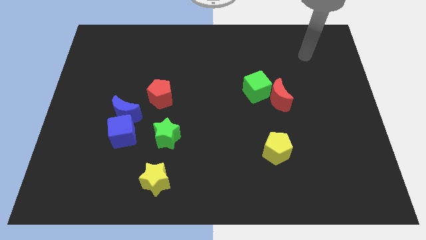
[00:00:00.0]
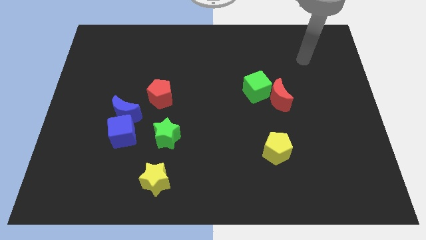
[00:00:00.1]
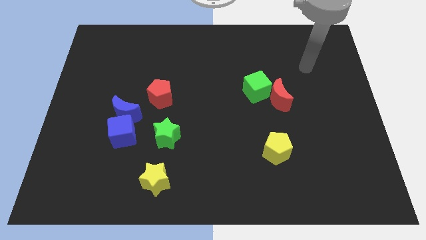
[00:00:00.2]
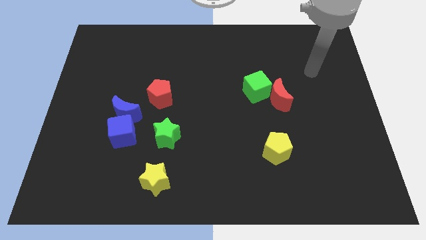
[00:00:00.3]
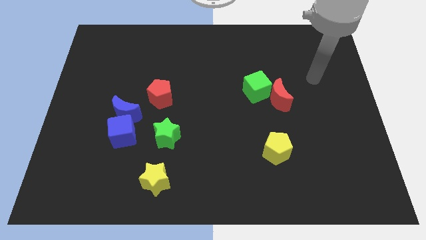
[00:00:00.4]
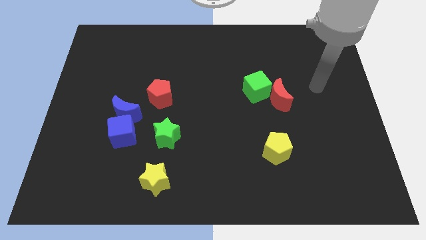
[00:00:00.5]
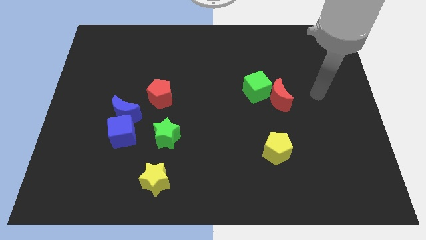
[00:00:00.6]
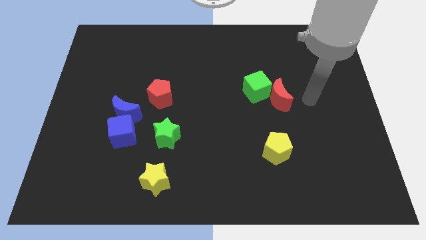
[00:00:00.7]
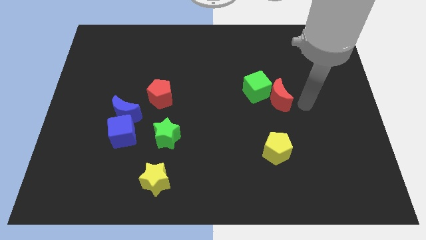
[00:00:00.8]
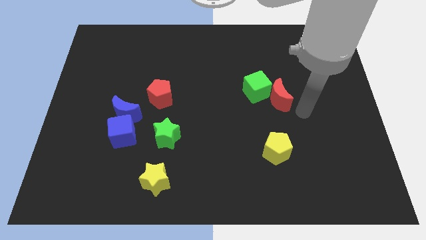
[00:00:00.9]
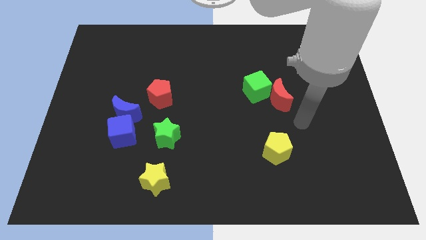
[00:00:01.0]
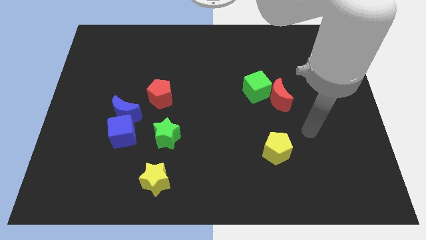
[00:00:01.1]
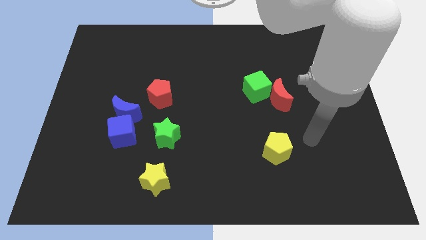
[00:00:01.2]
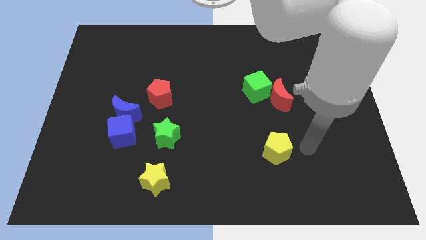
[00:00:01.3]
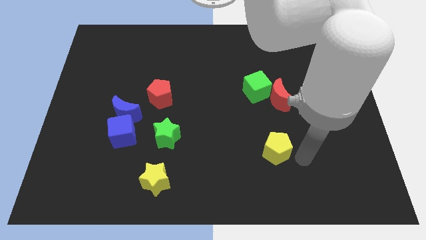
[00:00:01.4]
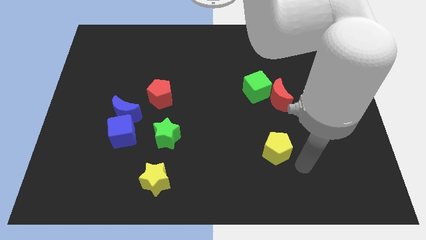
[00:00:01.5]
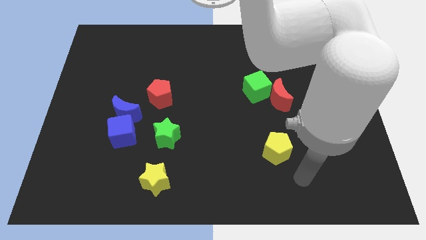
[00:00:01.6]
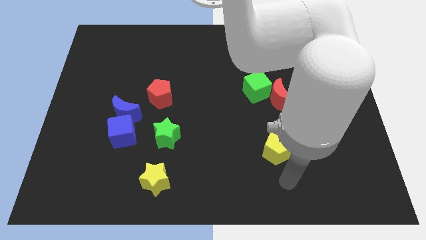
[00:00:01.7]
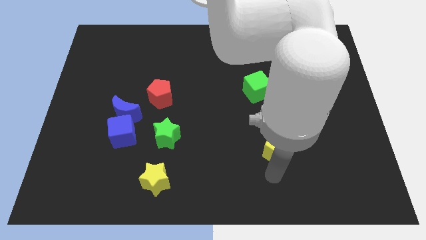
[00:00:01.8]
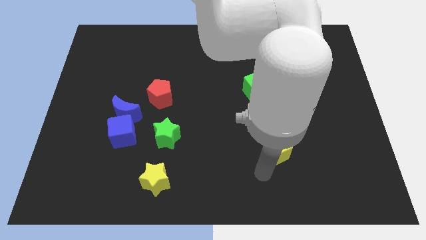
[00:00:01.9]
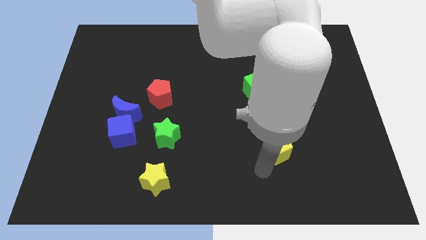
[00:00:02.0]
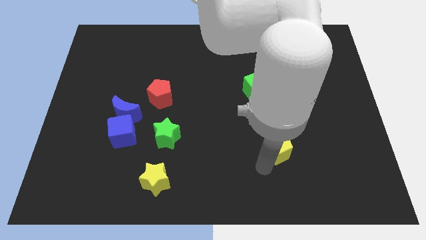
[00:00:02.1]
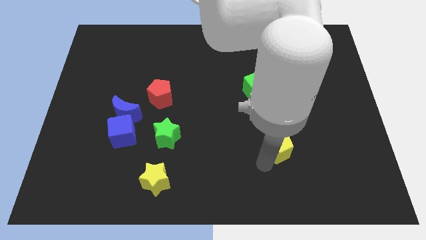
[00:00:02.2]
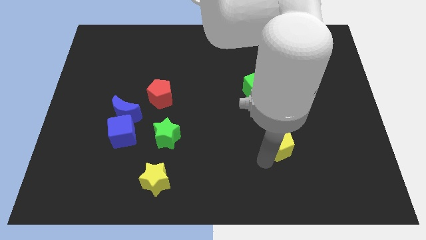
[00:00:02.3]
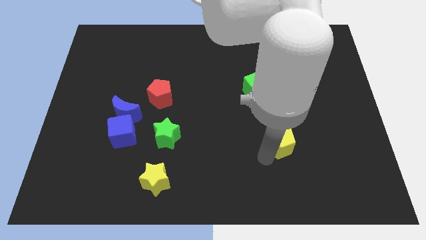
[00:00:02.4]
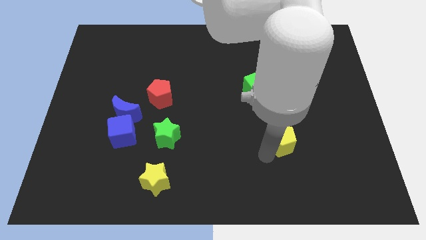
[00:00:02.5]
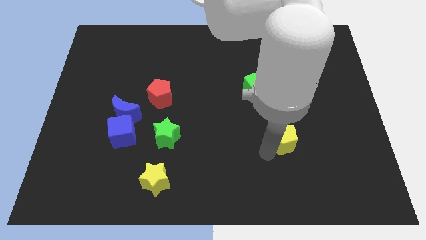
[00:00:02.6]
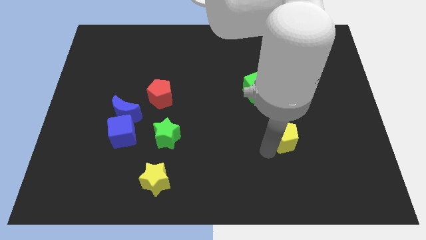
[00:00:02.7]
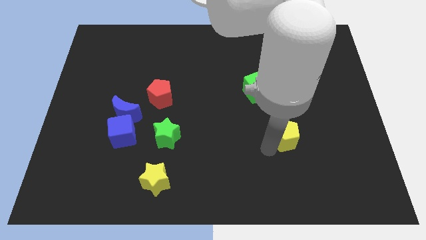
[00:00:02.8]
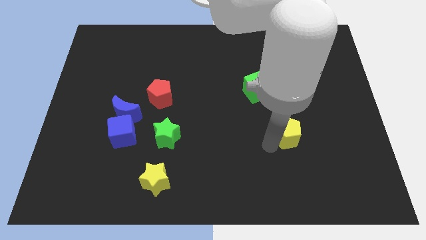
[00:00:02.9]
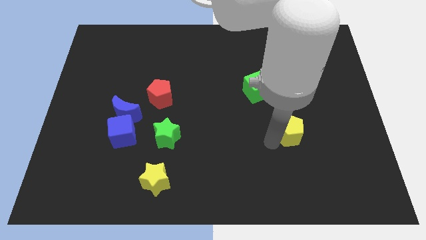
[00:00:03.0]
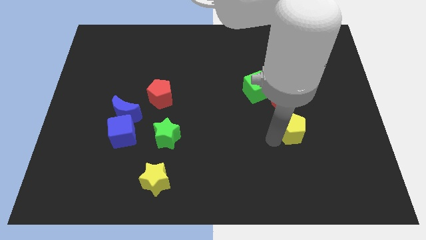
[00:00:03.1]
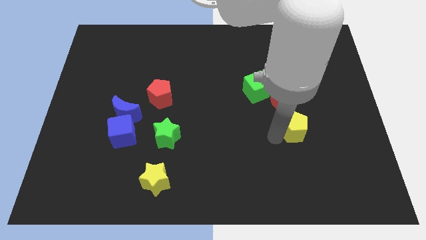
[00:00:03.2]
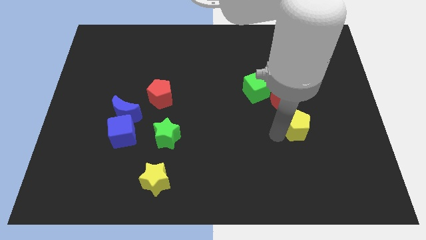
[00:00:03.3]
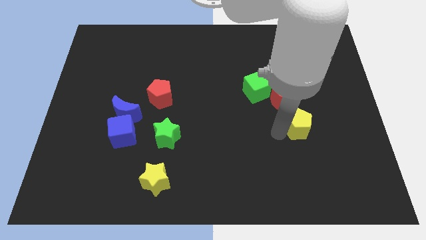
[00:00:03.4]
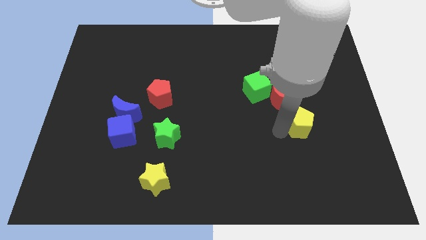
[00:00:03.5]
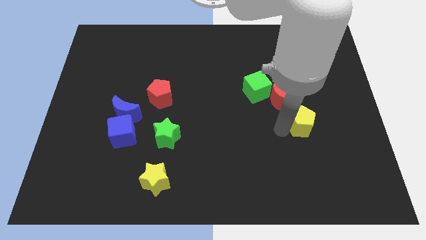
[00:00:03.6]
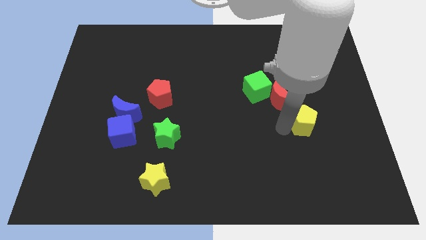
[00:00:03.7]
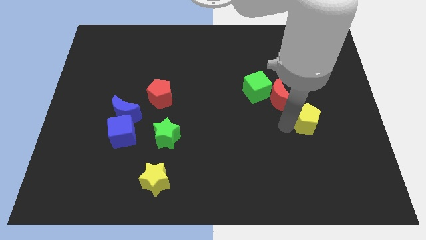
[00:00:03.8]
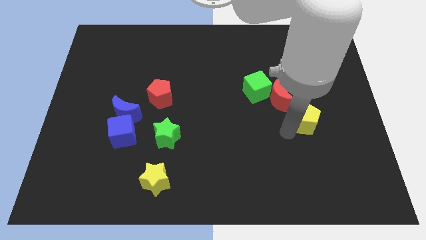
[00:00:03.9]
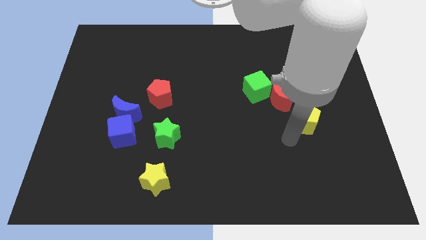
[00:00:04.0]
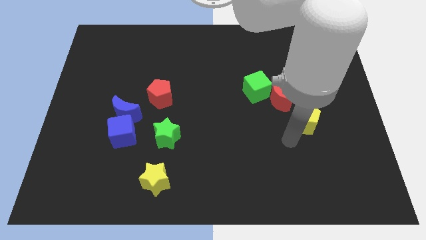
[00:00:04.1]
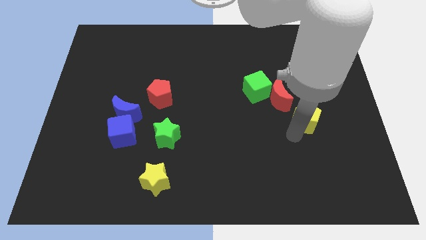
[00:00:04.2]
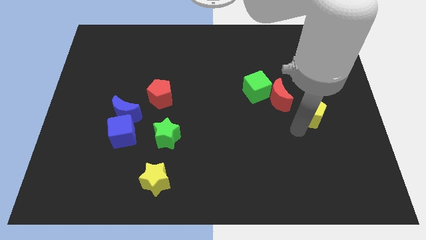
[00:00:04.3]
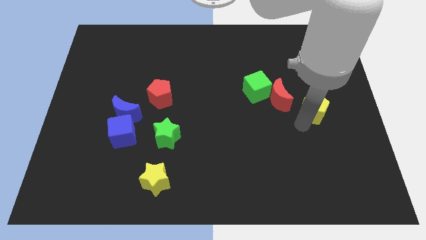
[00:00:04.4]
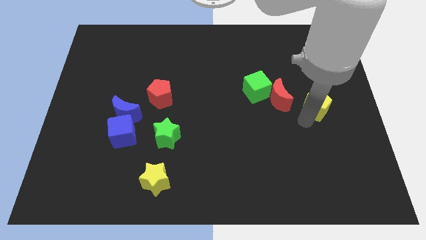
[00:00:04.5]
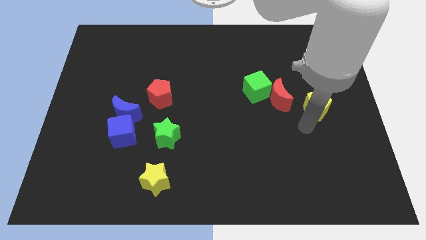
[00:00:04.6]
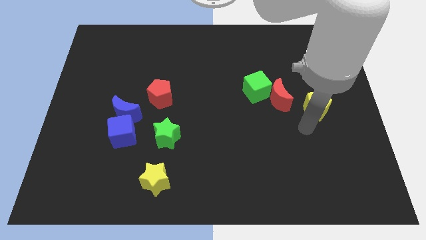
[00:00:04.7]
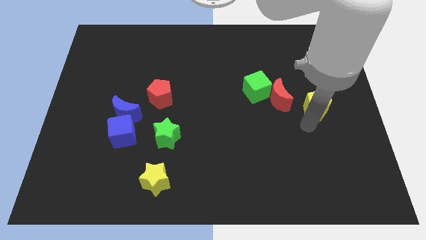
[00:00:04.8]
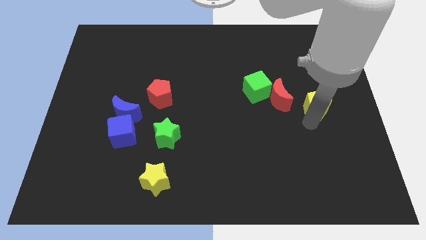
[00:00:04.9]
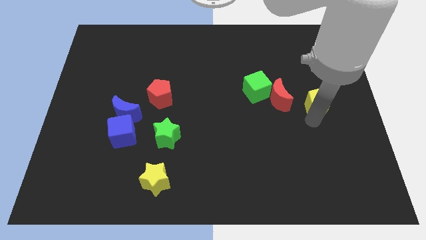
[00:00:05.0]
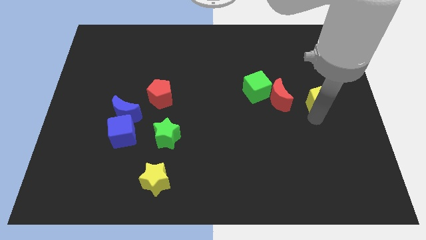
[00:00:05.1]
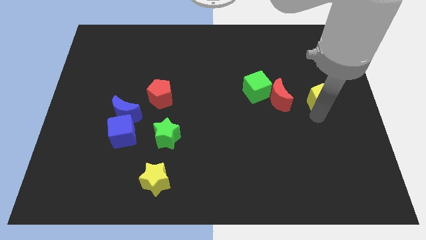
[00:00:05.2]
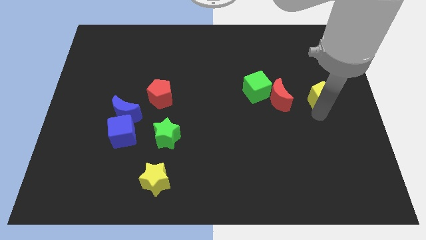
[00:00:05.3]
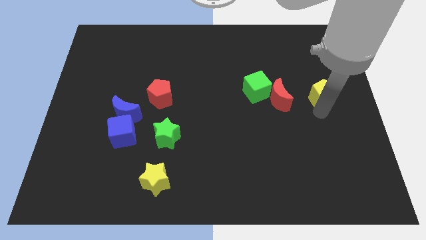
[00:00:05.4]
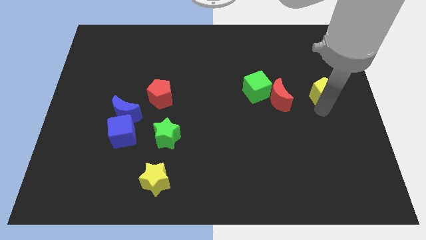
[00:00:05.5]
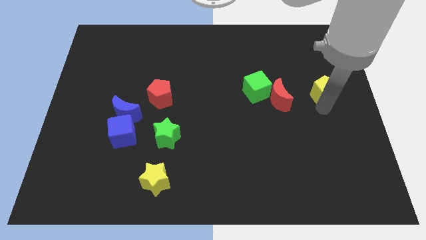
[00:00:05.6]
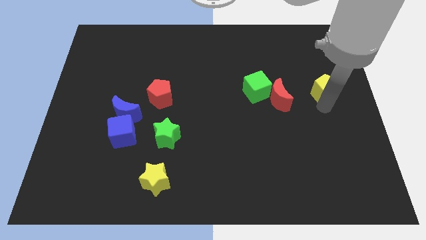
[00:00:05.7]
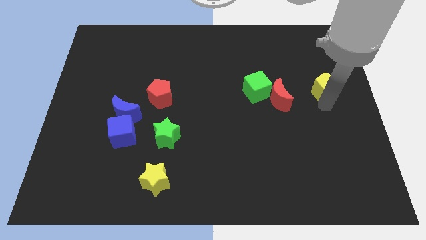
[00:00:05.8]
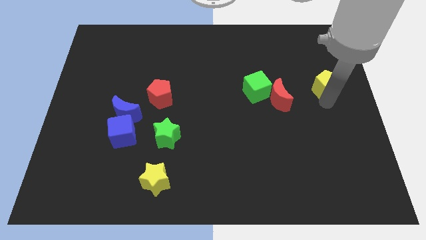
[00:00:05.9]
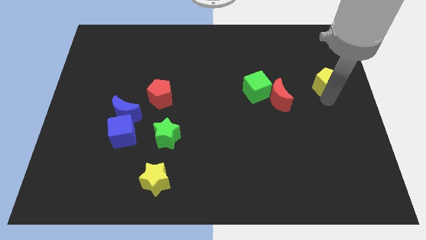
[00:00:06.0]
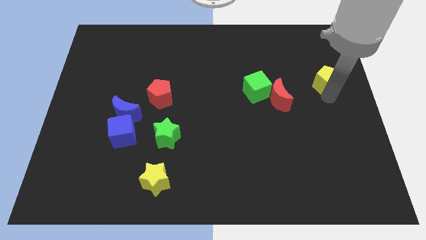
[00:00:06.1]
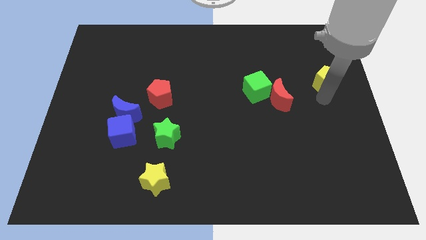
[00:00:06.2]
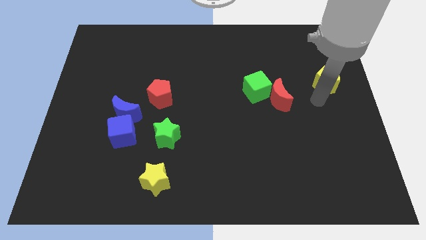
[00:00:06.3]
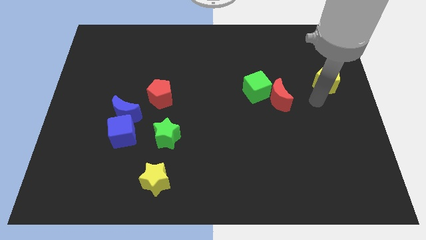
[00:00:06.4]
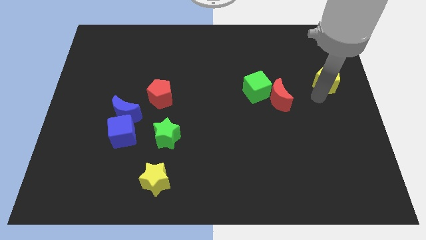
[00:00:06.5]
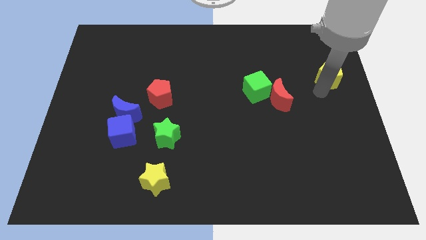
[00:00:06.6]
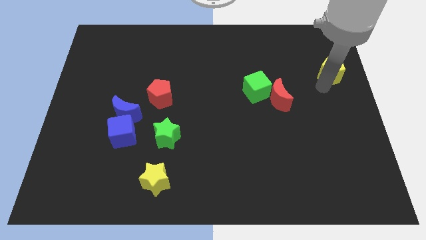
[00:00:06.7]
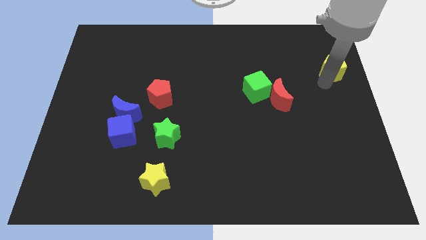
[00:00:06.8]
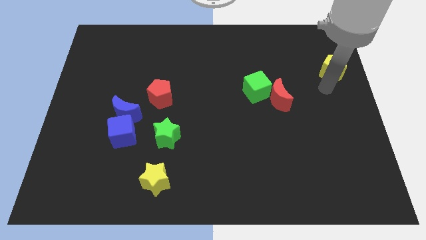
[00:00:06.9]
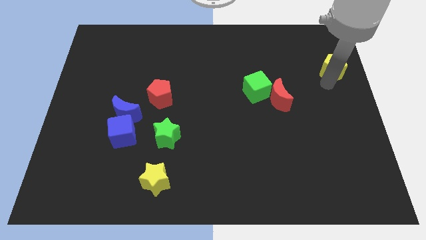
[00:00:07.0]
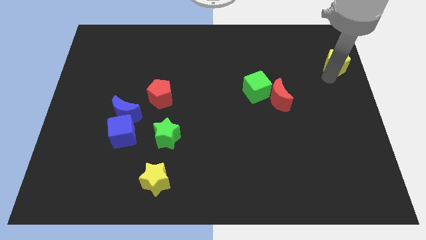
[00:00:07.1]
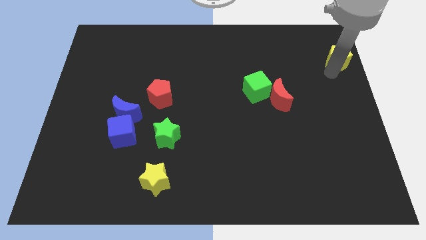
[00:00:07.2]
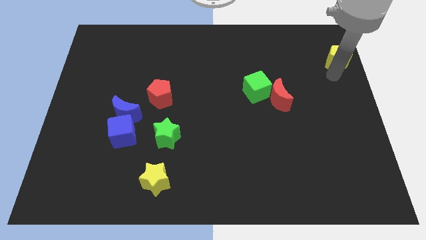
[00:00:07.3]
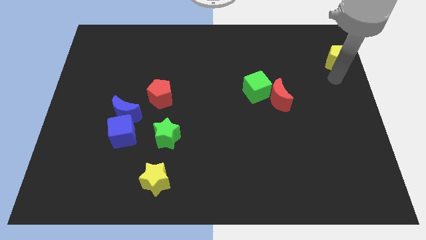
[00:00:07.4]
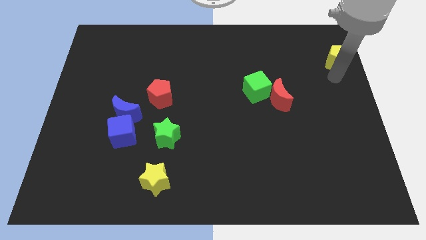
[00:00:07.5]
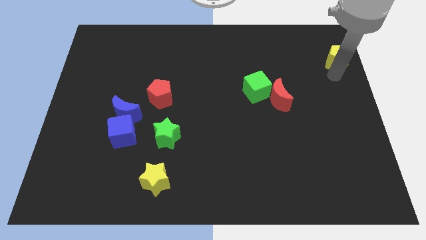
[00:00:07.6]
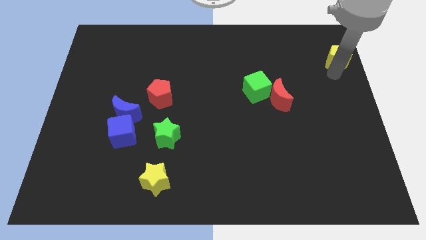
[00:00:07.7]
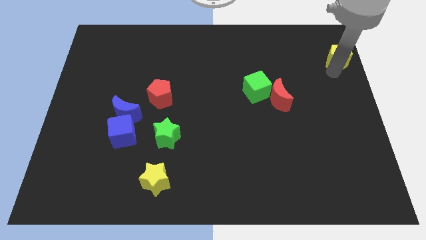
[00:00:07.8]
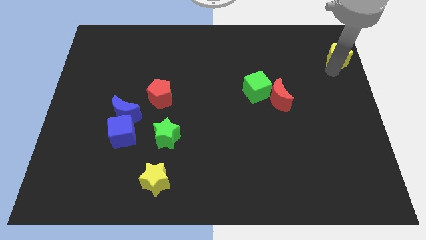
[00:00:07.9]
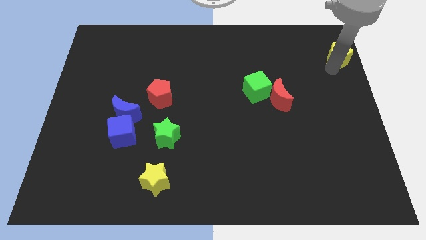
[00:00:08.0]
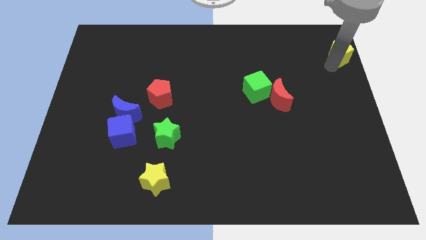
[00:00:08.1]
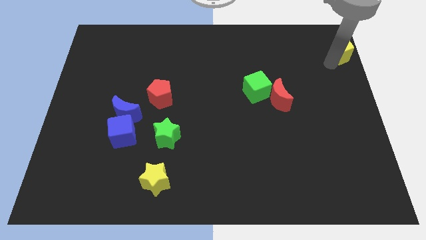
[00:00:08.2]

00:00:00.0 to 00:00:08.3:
push the yellow pentagon to the top right
